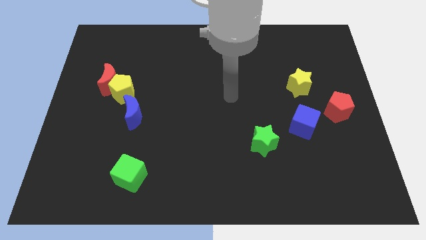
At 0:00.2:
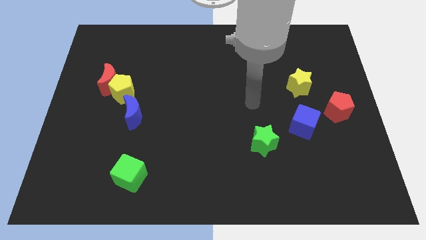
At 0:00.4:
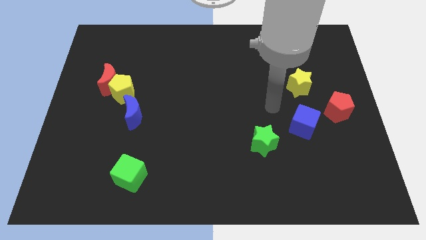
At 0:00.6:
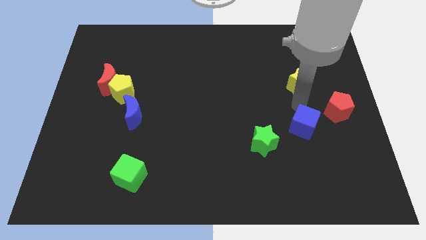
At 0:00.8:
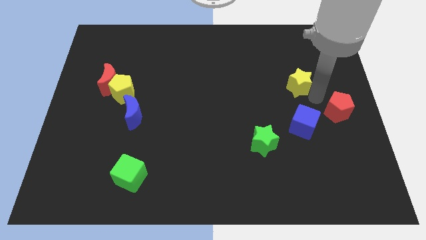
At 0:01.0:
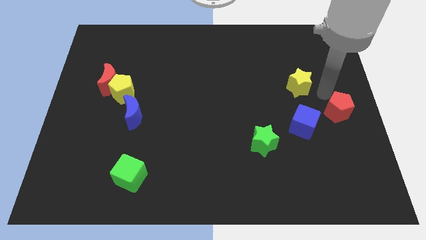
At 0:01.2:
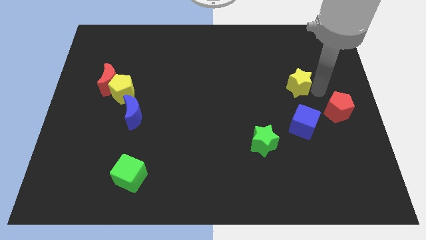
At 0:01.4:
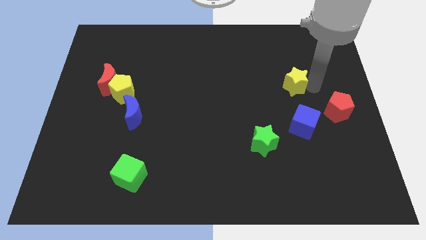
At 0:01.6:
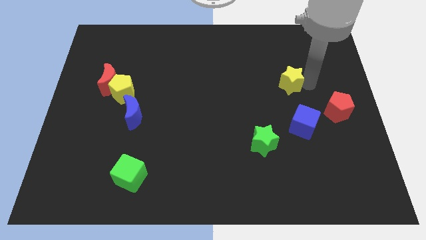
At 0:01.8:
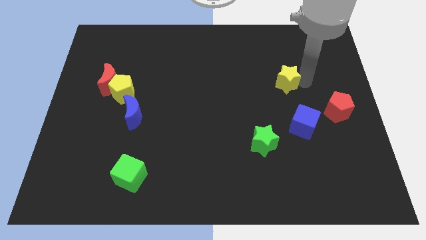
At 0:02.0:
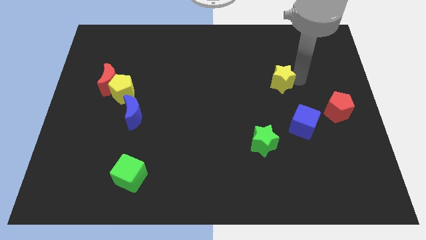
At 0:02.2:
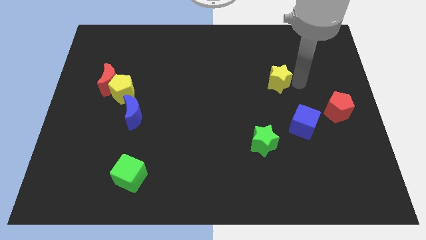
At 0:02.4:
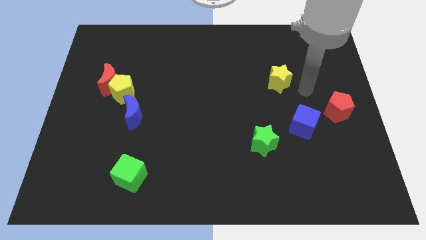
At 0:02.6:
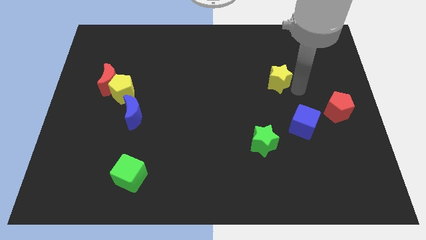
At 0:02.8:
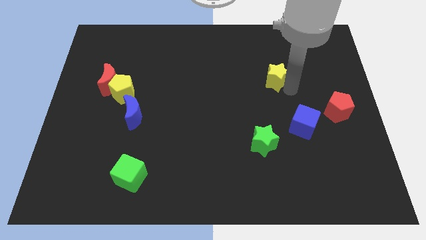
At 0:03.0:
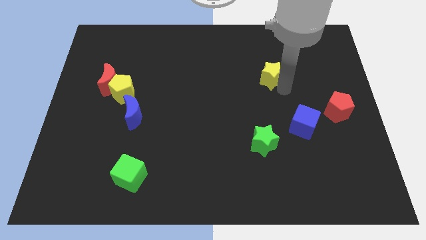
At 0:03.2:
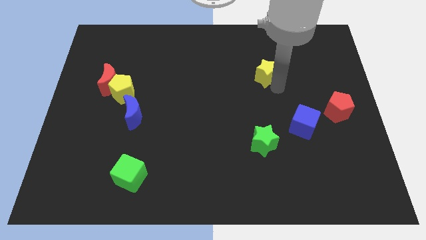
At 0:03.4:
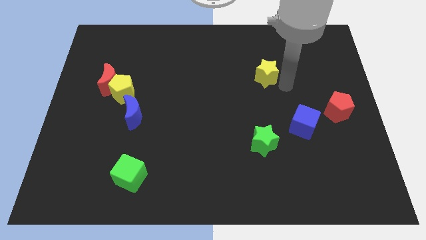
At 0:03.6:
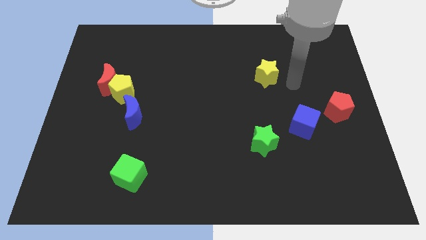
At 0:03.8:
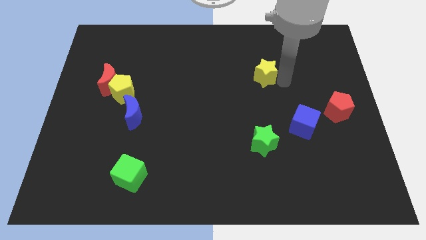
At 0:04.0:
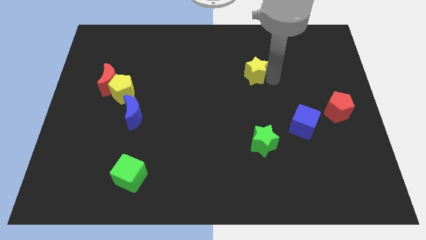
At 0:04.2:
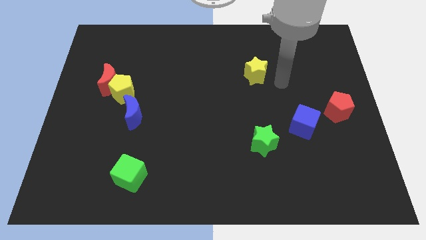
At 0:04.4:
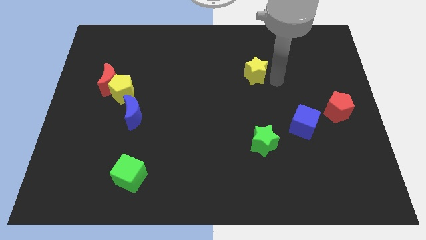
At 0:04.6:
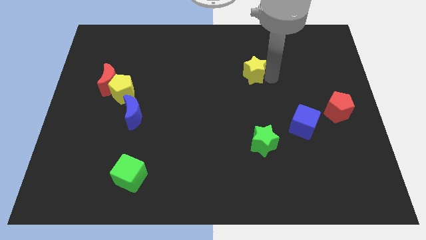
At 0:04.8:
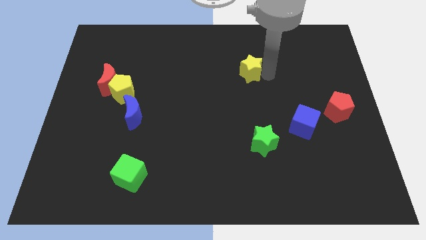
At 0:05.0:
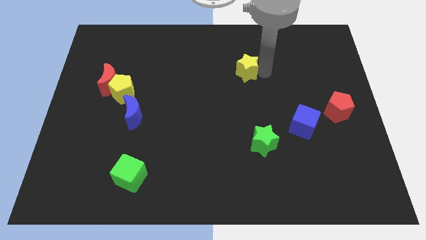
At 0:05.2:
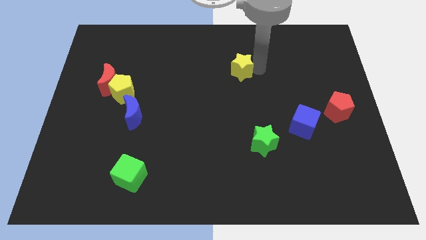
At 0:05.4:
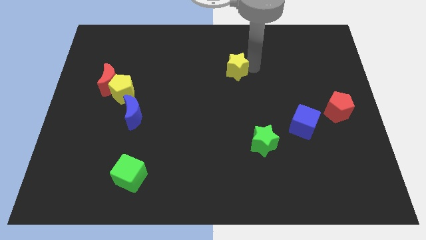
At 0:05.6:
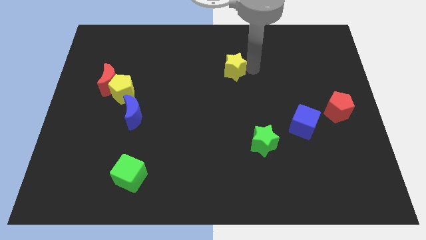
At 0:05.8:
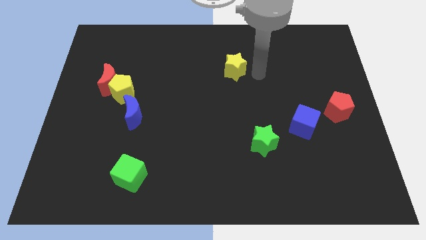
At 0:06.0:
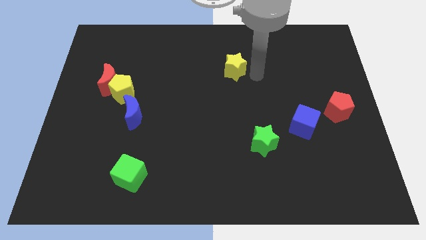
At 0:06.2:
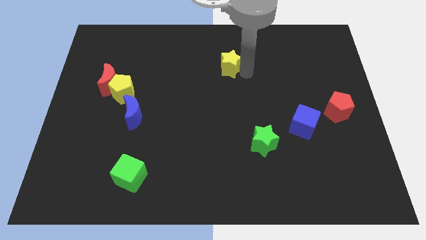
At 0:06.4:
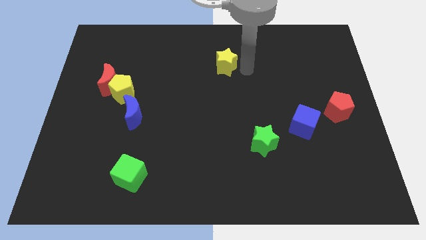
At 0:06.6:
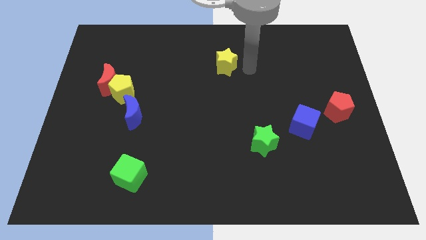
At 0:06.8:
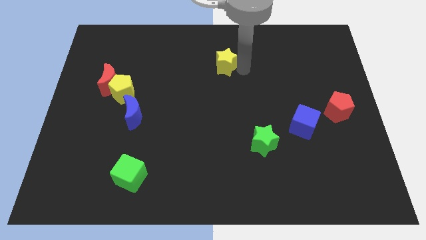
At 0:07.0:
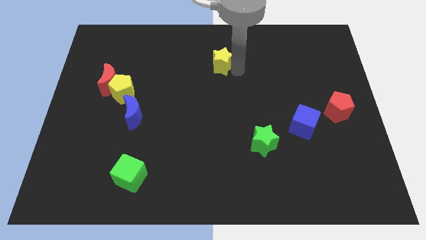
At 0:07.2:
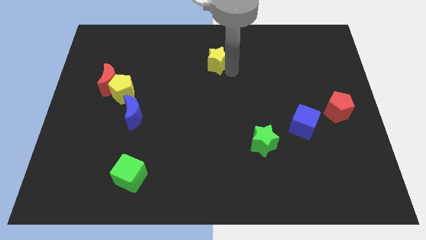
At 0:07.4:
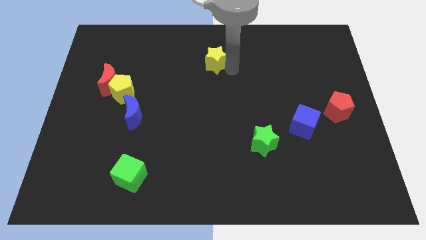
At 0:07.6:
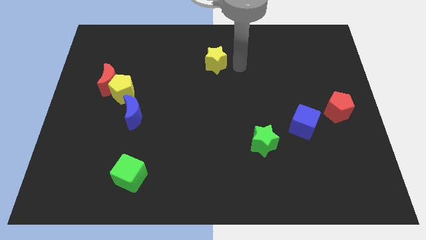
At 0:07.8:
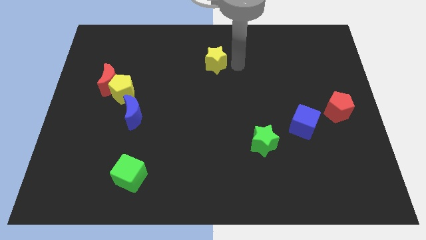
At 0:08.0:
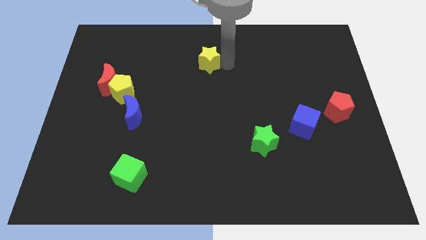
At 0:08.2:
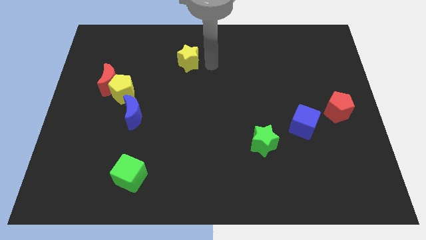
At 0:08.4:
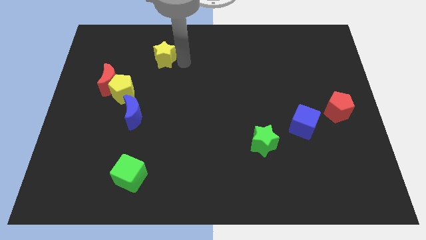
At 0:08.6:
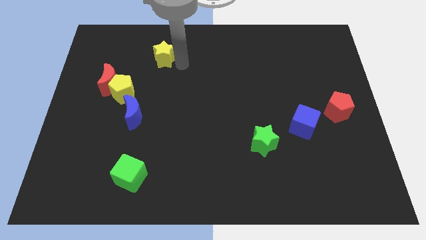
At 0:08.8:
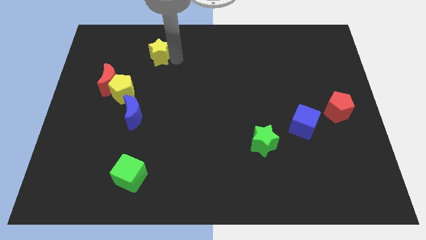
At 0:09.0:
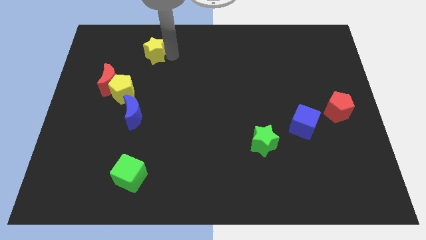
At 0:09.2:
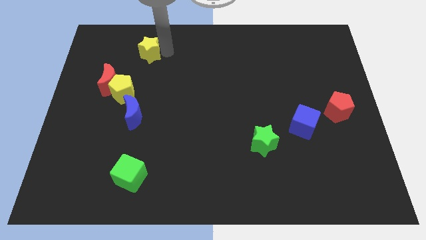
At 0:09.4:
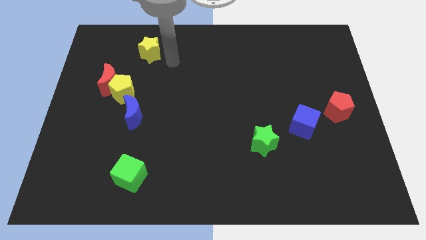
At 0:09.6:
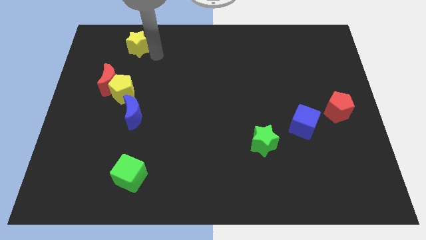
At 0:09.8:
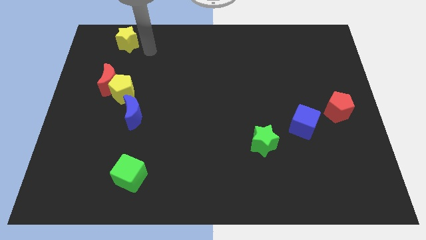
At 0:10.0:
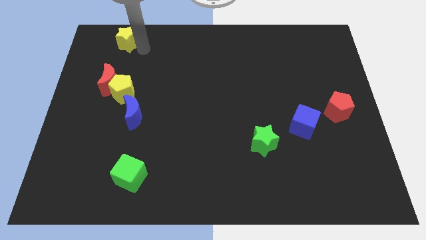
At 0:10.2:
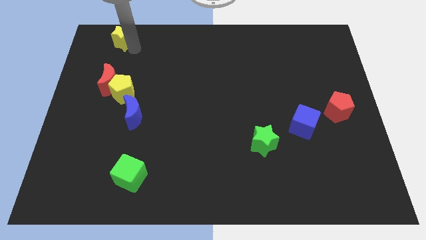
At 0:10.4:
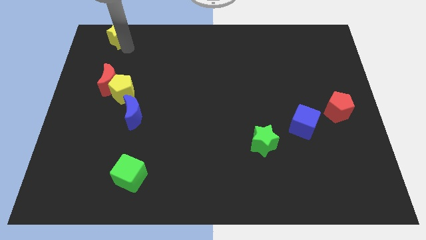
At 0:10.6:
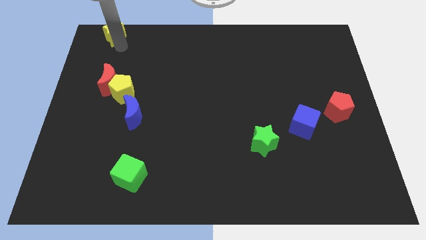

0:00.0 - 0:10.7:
move the yellow star to the top left

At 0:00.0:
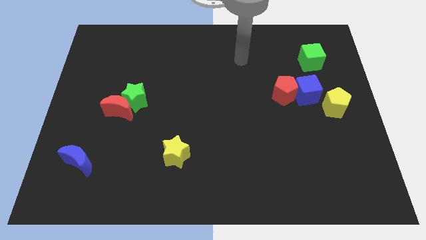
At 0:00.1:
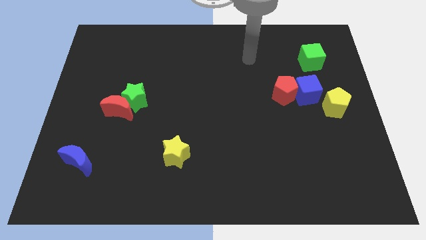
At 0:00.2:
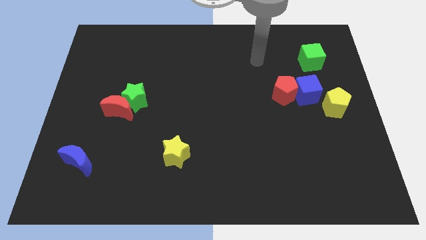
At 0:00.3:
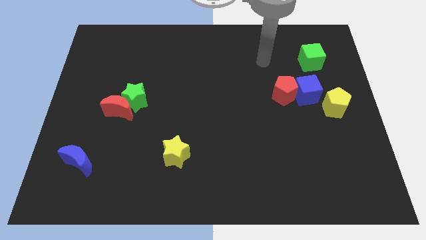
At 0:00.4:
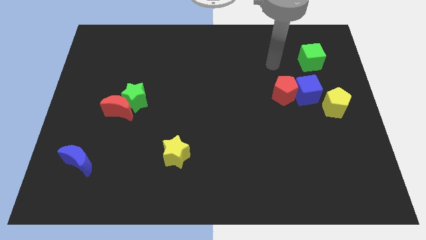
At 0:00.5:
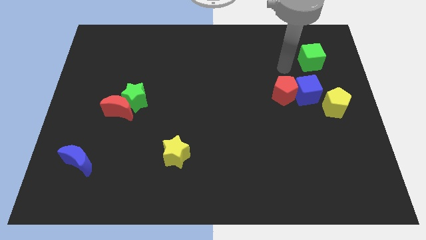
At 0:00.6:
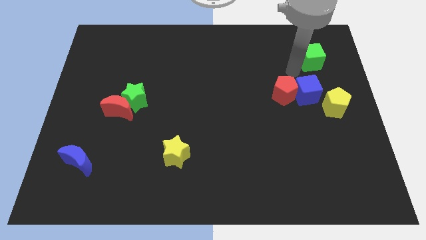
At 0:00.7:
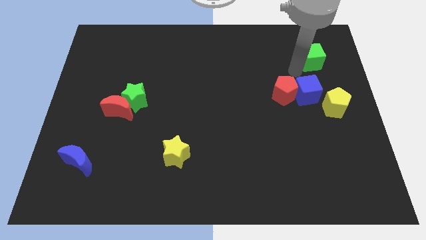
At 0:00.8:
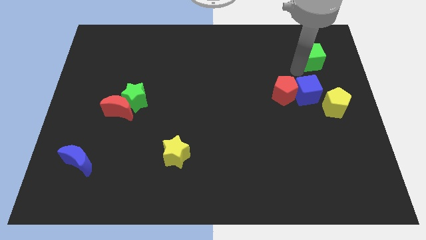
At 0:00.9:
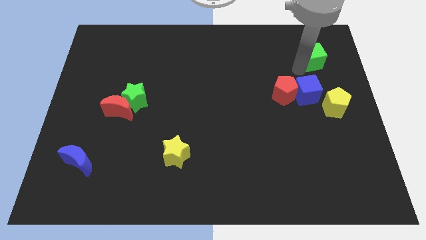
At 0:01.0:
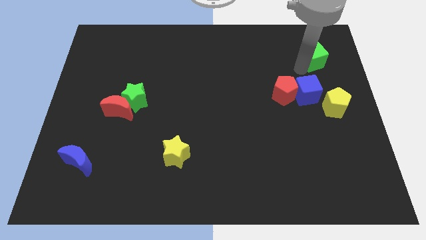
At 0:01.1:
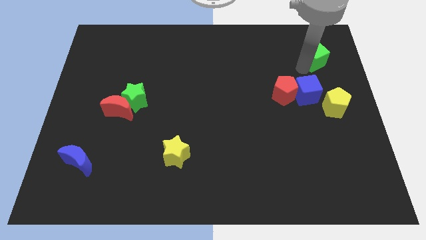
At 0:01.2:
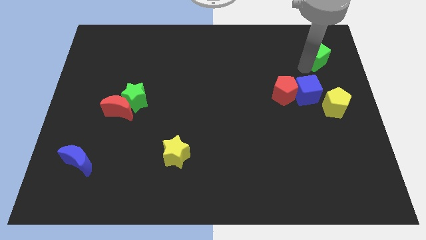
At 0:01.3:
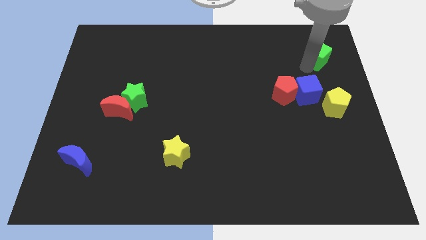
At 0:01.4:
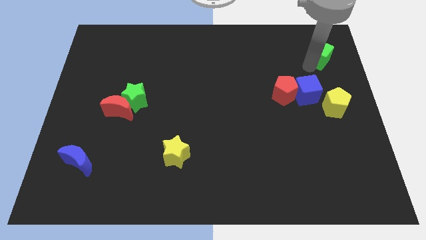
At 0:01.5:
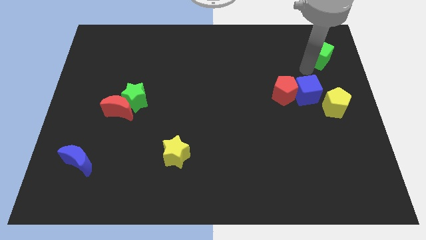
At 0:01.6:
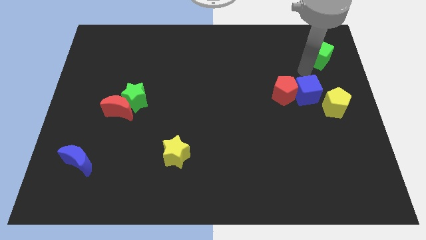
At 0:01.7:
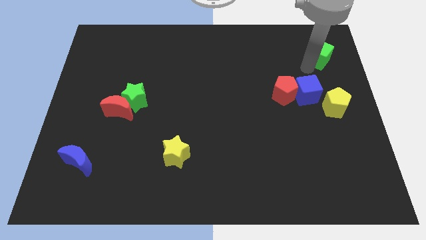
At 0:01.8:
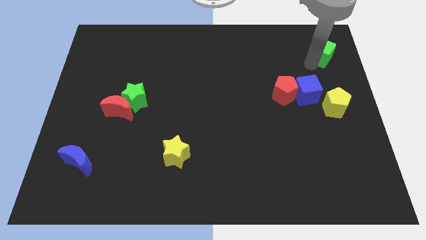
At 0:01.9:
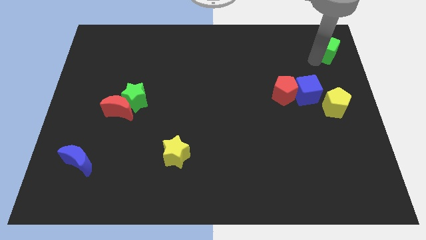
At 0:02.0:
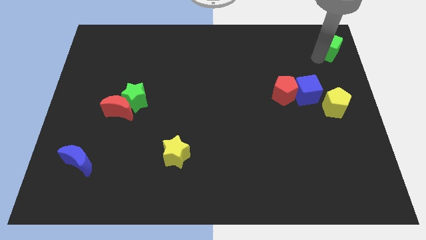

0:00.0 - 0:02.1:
push the green cube to the top right of the board
